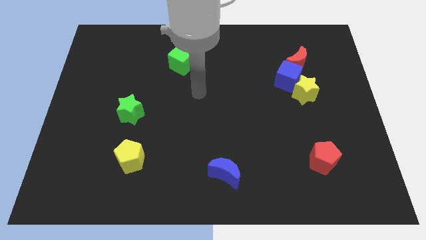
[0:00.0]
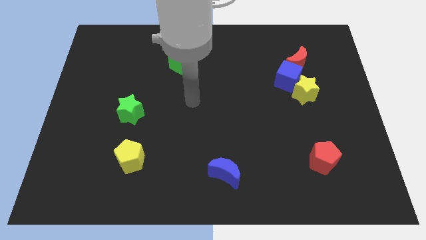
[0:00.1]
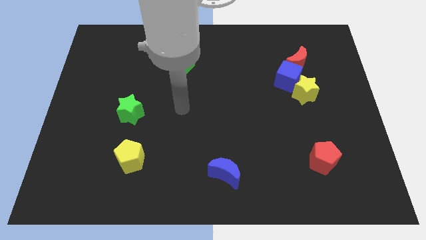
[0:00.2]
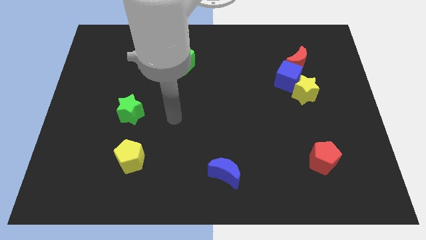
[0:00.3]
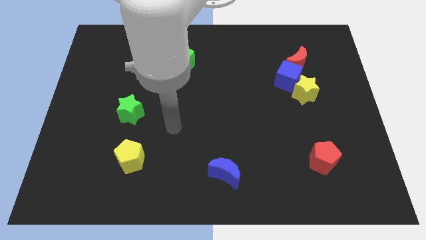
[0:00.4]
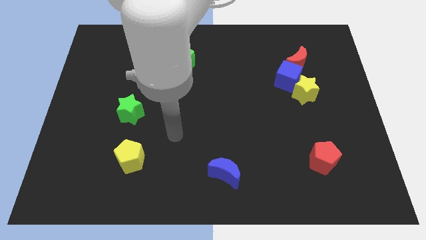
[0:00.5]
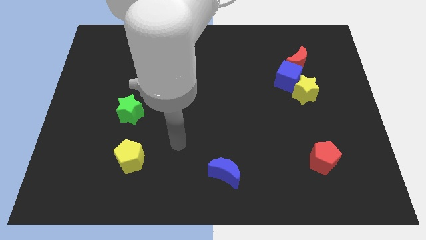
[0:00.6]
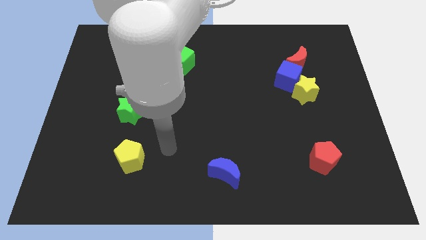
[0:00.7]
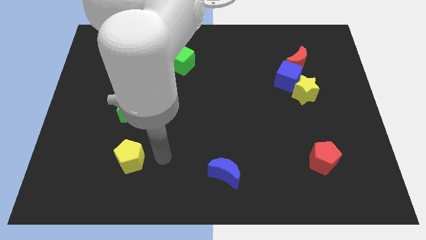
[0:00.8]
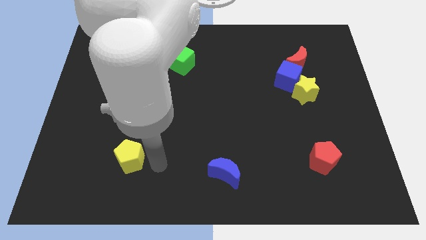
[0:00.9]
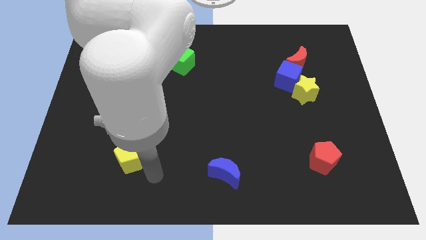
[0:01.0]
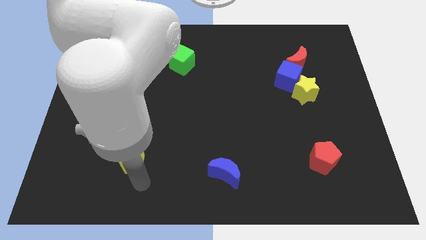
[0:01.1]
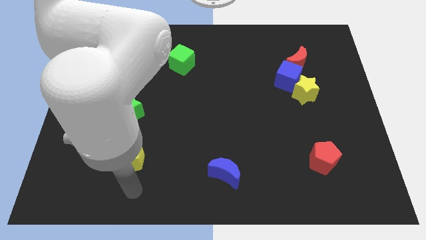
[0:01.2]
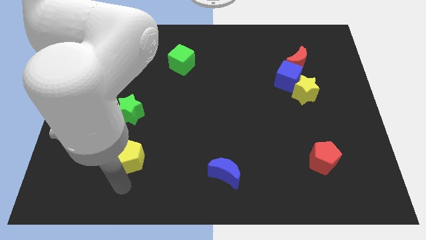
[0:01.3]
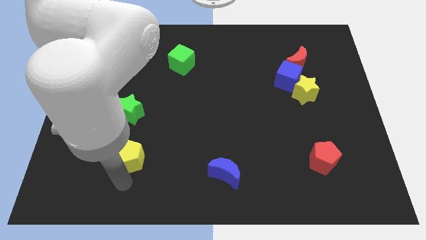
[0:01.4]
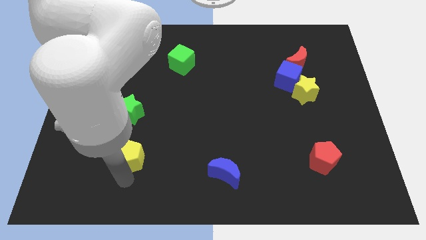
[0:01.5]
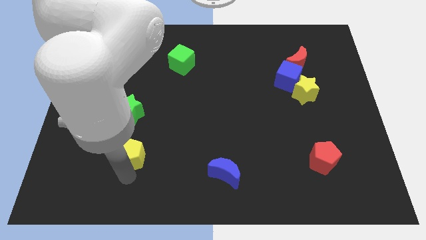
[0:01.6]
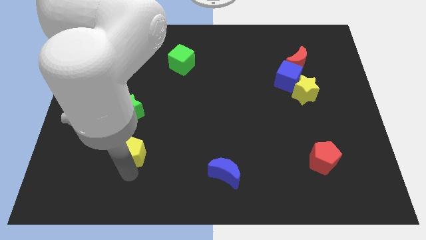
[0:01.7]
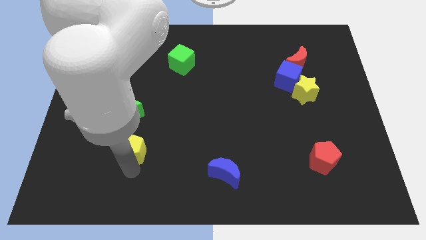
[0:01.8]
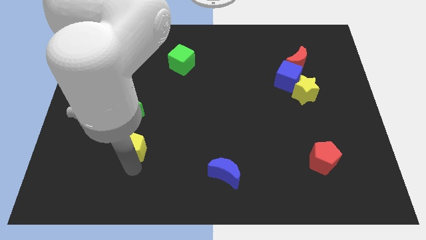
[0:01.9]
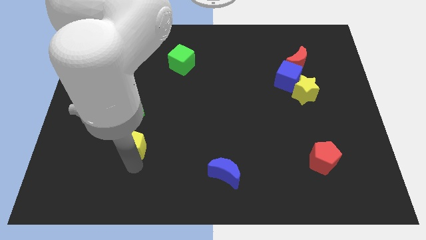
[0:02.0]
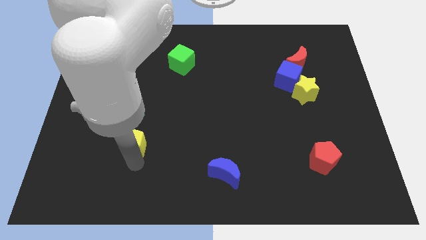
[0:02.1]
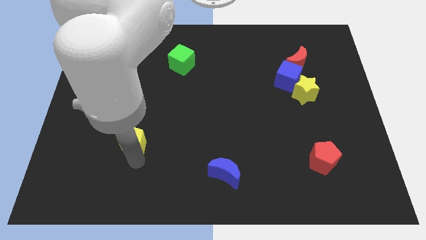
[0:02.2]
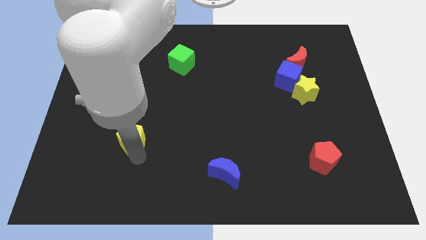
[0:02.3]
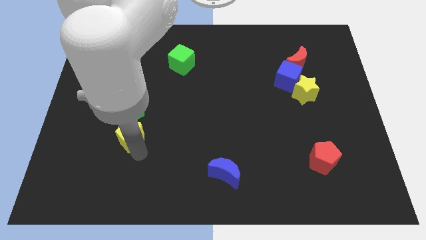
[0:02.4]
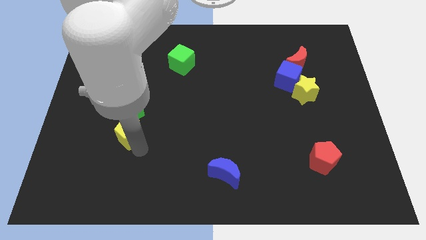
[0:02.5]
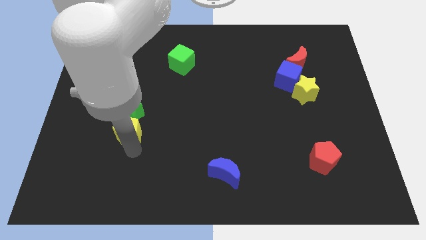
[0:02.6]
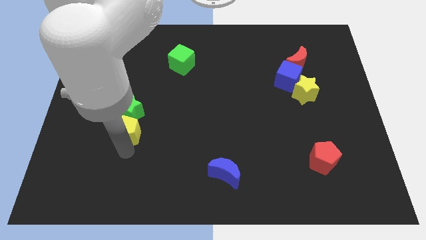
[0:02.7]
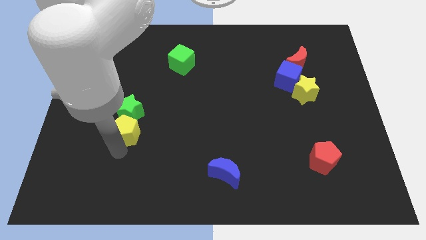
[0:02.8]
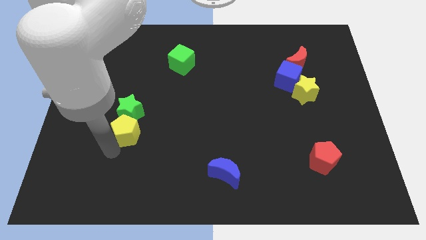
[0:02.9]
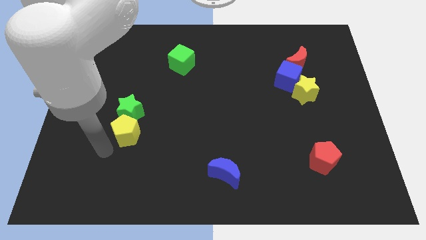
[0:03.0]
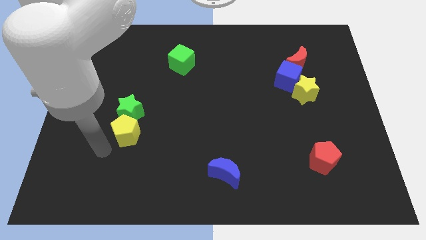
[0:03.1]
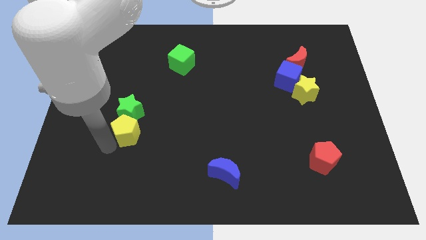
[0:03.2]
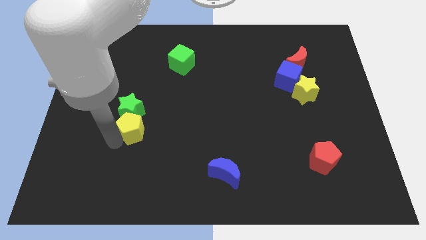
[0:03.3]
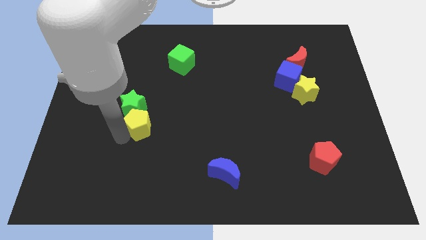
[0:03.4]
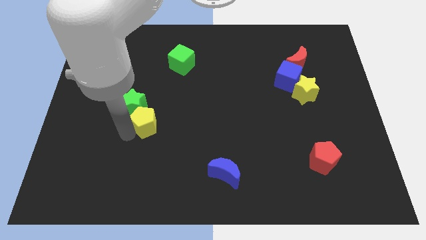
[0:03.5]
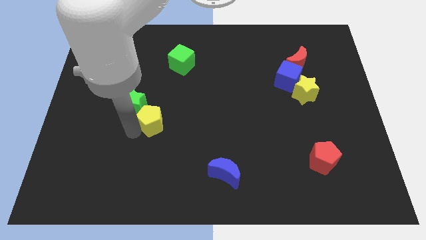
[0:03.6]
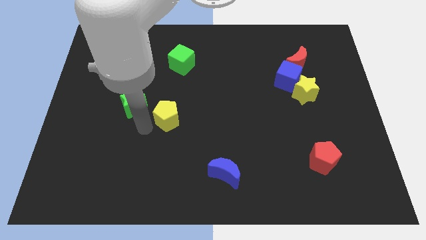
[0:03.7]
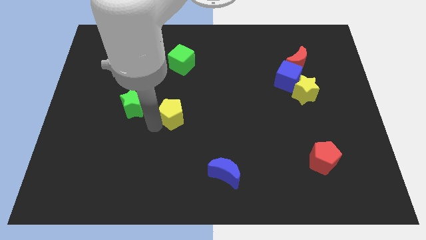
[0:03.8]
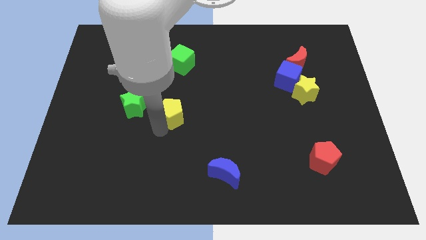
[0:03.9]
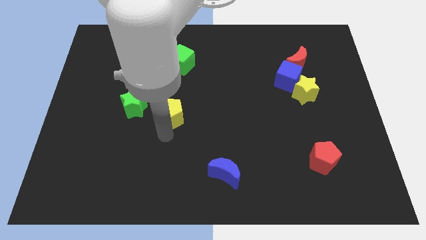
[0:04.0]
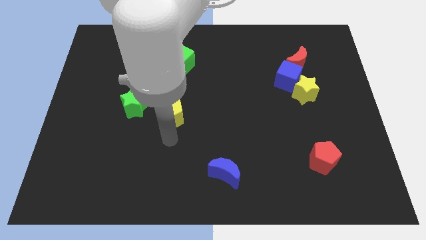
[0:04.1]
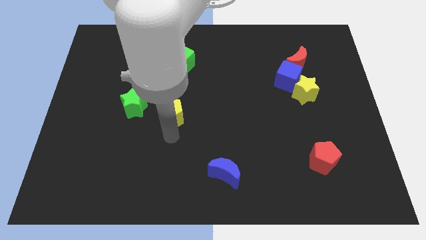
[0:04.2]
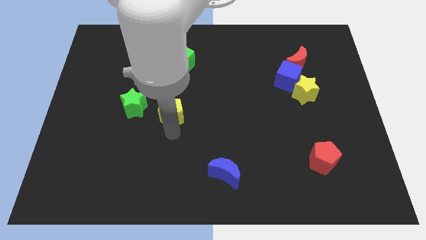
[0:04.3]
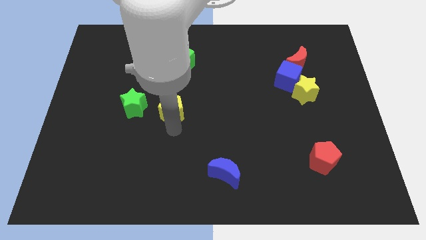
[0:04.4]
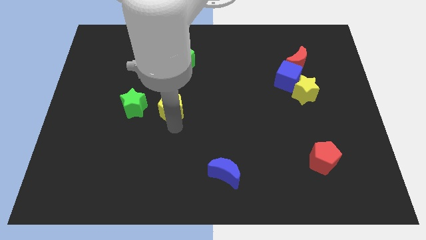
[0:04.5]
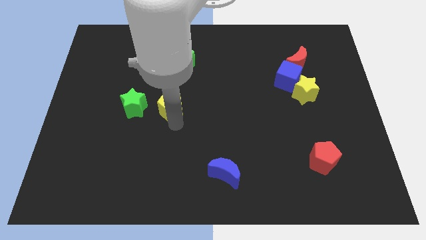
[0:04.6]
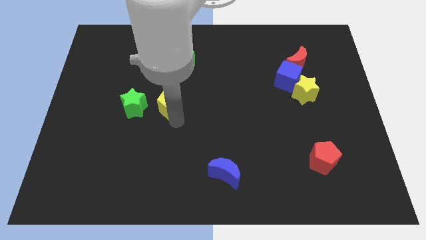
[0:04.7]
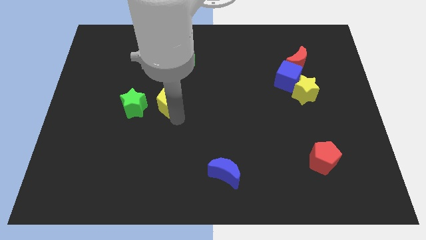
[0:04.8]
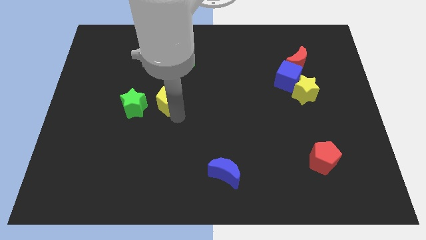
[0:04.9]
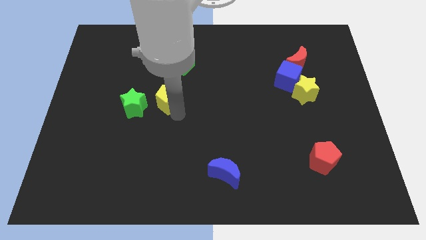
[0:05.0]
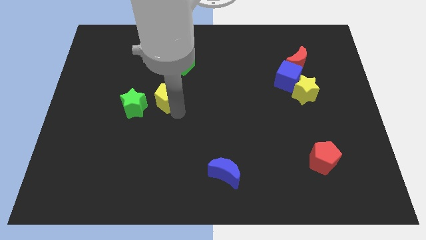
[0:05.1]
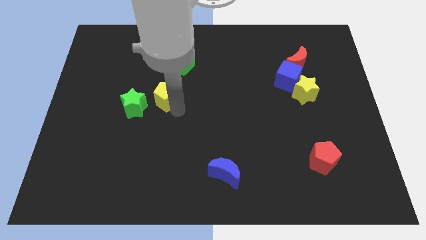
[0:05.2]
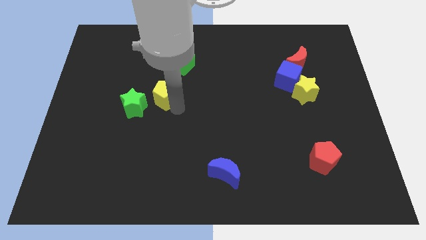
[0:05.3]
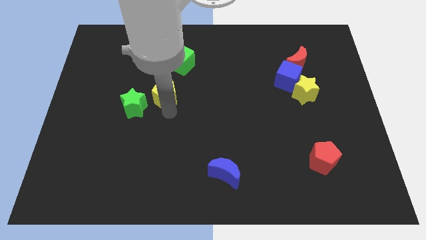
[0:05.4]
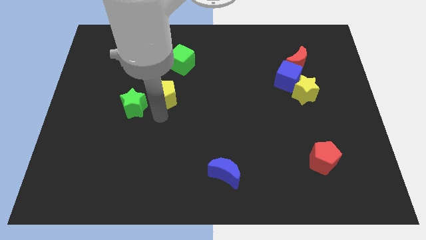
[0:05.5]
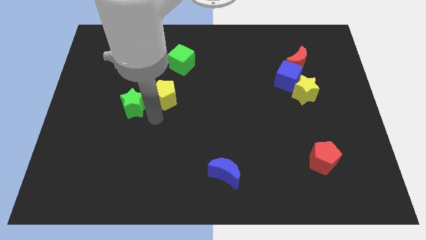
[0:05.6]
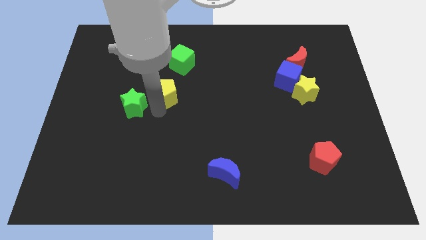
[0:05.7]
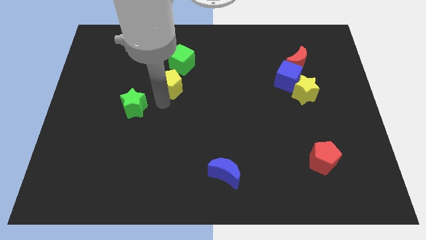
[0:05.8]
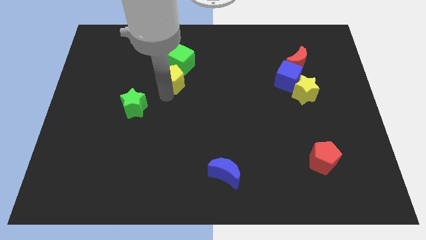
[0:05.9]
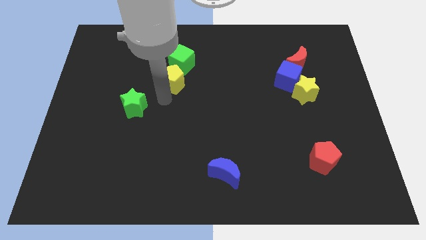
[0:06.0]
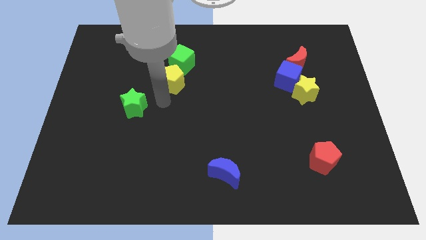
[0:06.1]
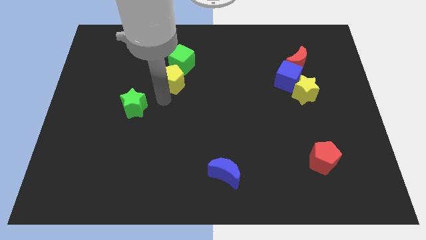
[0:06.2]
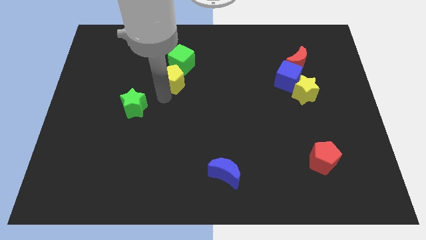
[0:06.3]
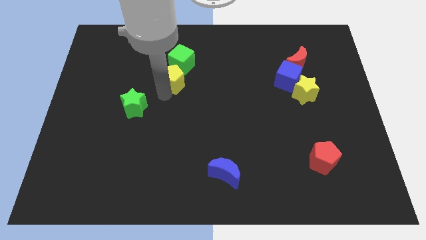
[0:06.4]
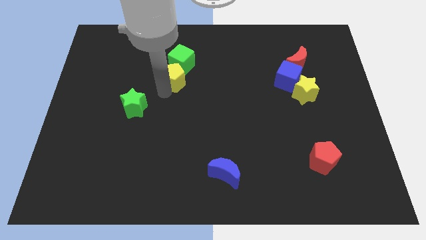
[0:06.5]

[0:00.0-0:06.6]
put the yellow pentagon towards the green cube

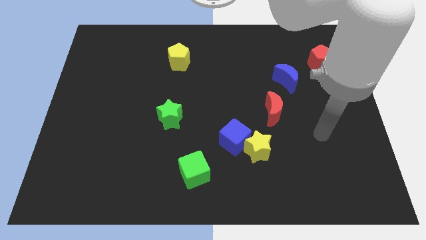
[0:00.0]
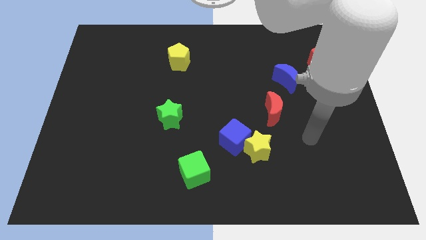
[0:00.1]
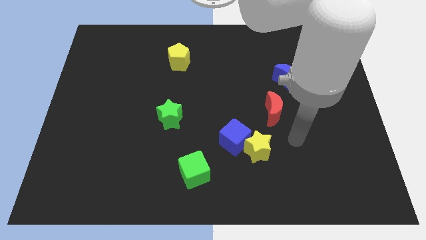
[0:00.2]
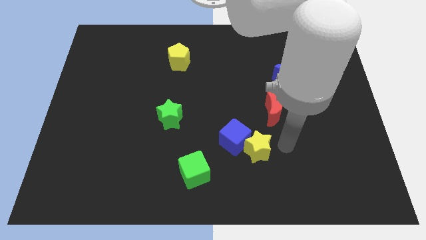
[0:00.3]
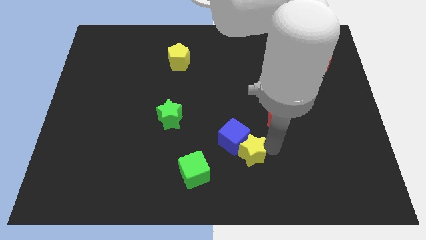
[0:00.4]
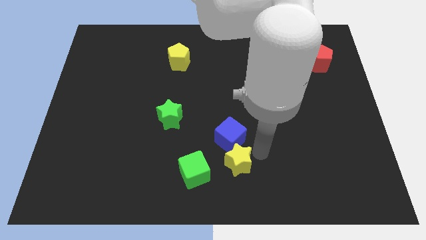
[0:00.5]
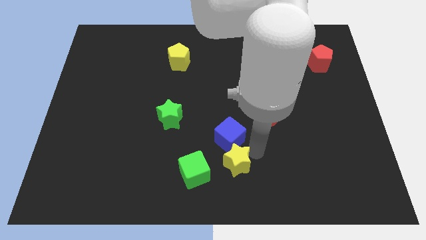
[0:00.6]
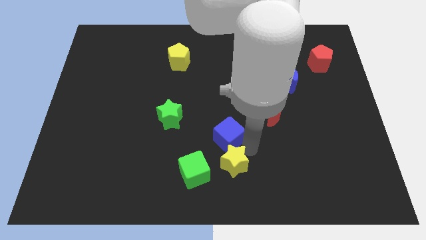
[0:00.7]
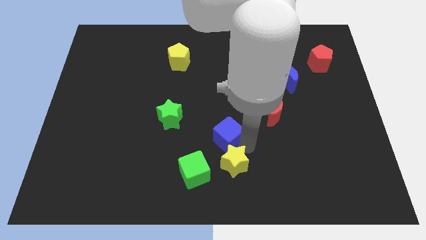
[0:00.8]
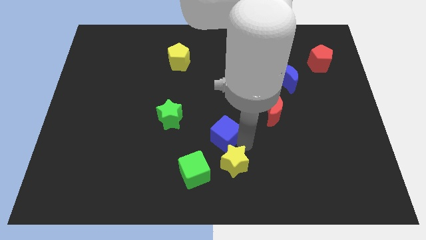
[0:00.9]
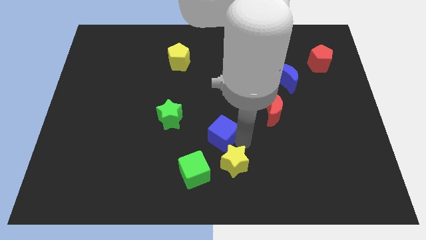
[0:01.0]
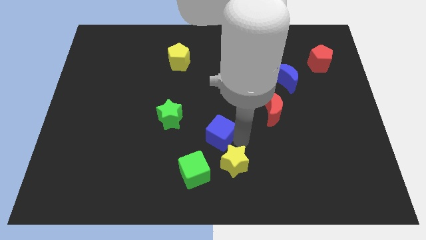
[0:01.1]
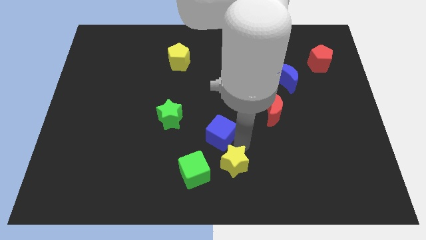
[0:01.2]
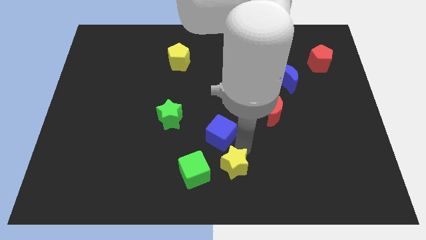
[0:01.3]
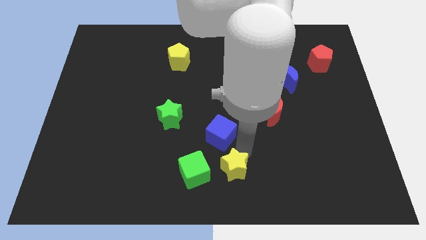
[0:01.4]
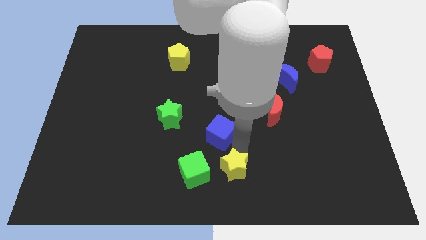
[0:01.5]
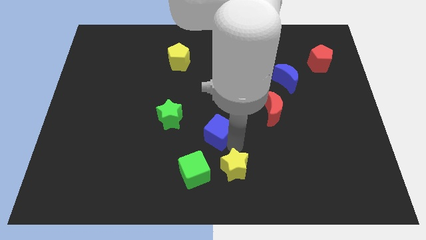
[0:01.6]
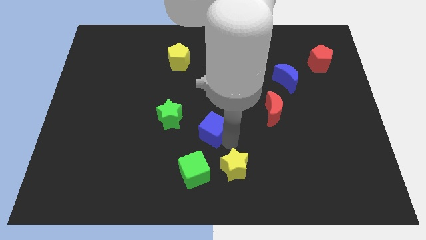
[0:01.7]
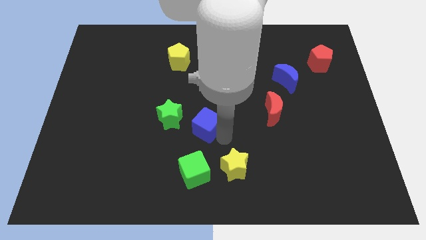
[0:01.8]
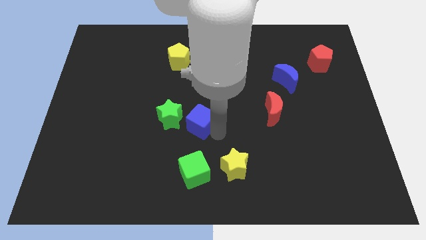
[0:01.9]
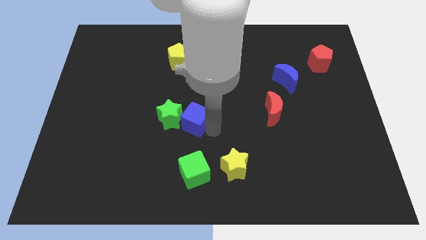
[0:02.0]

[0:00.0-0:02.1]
slide the blue cube next to the green star
